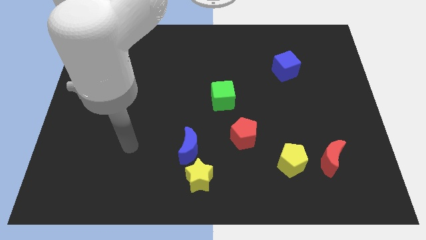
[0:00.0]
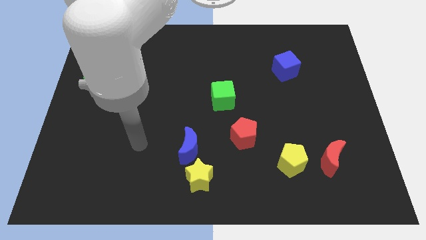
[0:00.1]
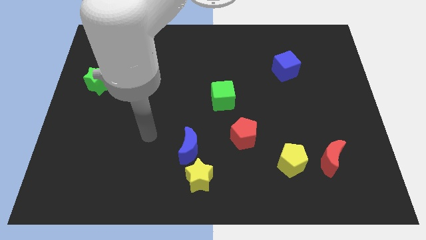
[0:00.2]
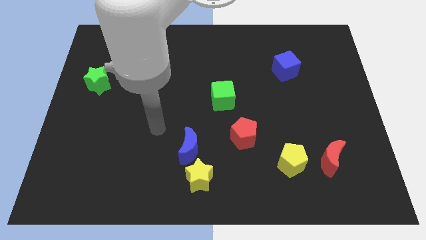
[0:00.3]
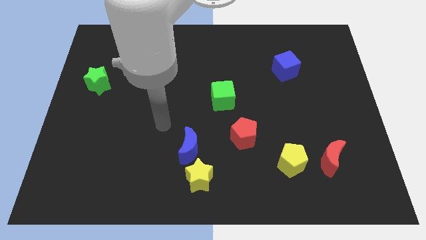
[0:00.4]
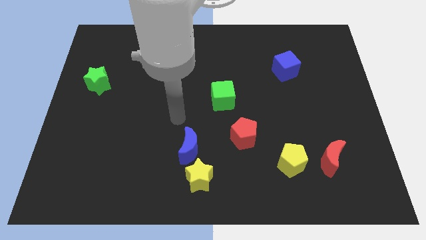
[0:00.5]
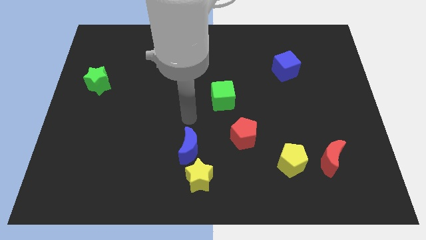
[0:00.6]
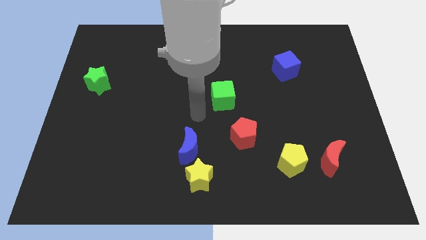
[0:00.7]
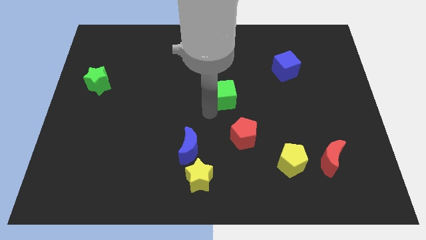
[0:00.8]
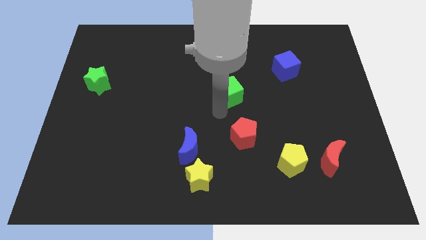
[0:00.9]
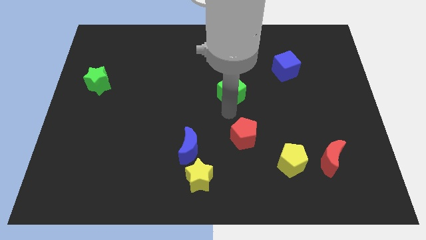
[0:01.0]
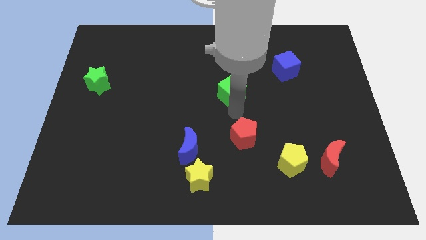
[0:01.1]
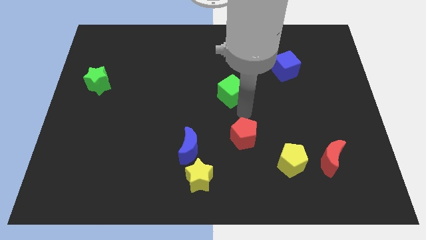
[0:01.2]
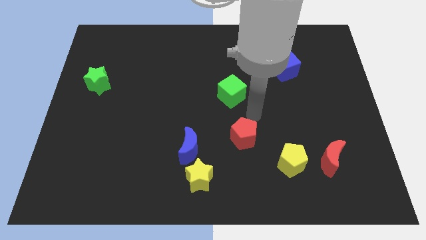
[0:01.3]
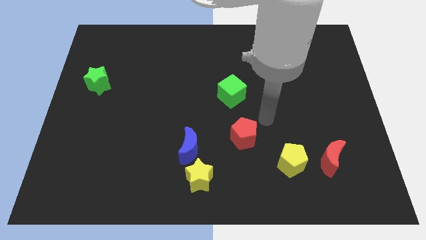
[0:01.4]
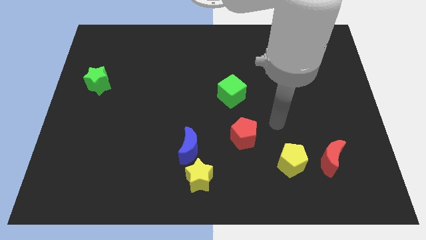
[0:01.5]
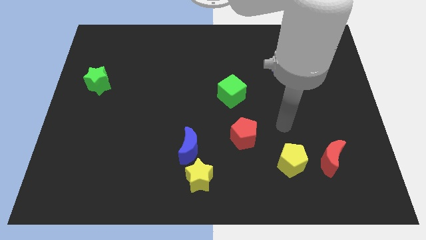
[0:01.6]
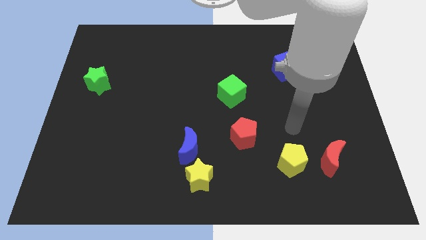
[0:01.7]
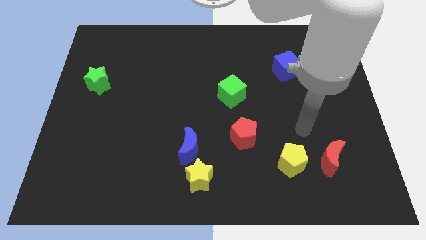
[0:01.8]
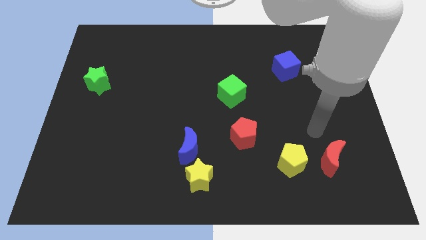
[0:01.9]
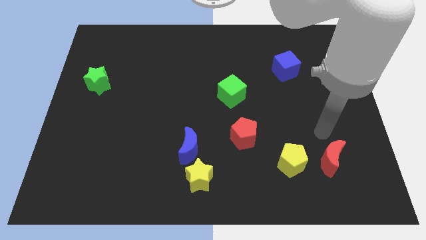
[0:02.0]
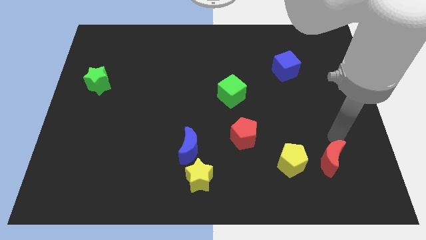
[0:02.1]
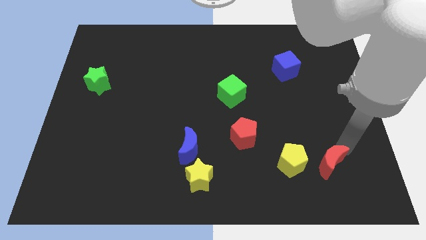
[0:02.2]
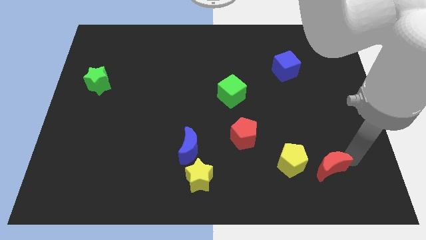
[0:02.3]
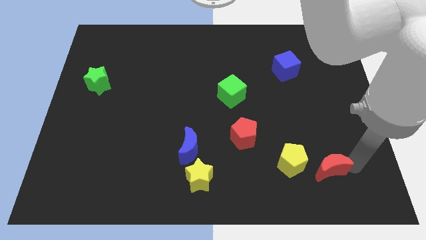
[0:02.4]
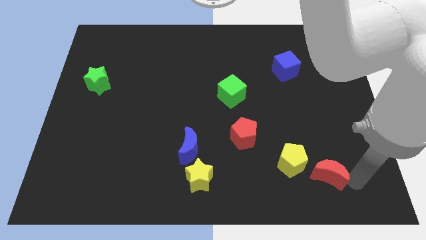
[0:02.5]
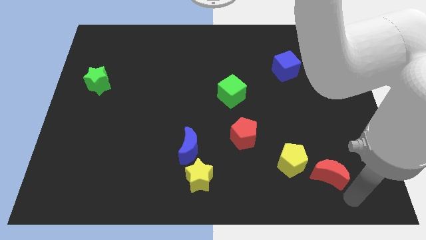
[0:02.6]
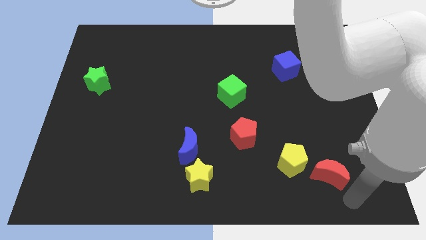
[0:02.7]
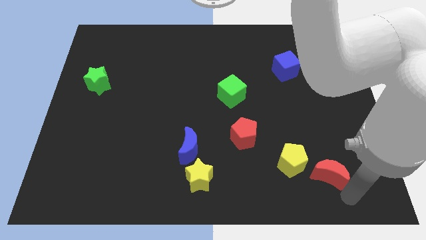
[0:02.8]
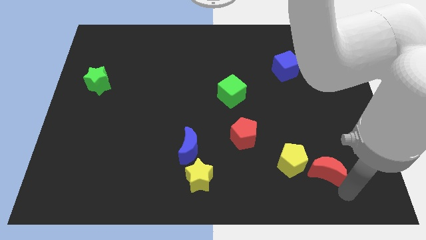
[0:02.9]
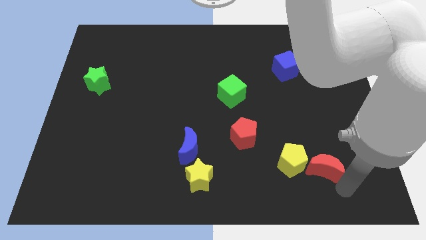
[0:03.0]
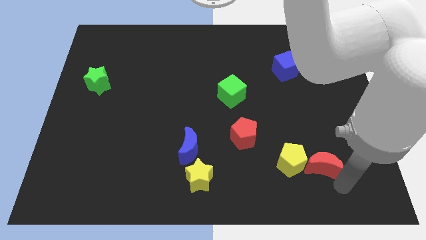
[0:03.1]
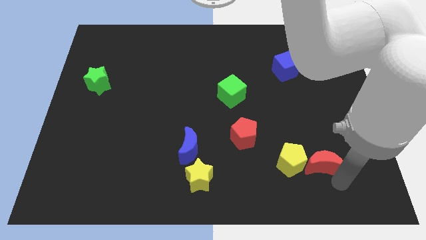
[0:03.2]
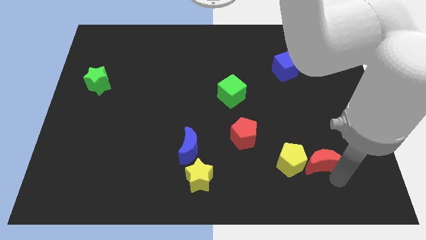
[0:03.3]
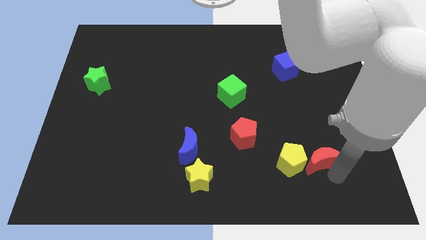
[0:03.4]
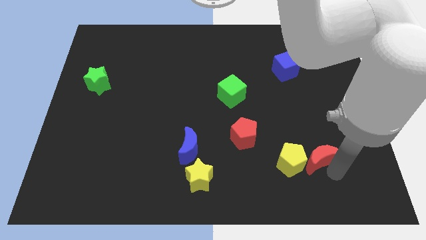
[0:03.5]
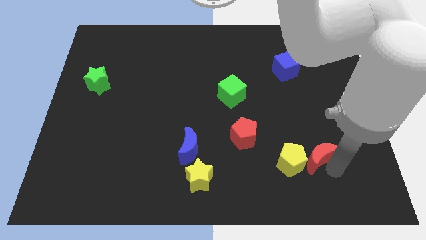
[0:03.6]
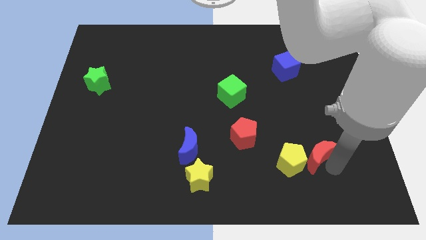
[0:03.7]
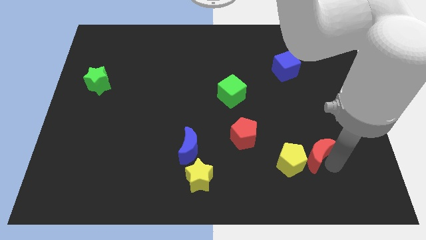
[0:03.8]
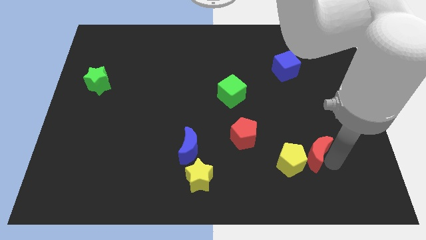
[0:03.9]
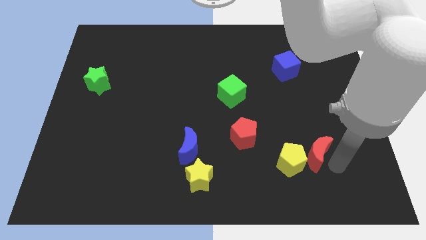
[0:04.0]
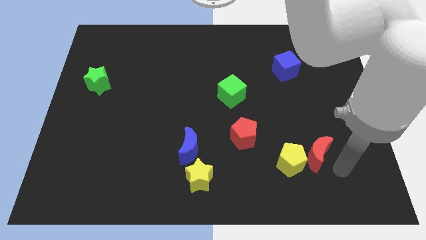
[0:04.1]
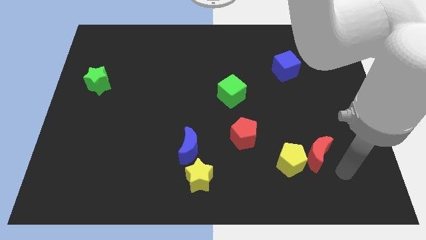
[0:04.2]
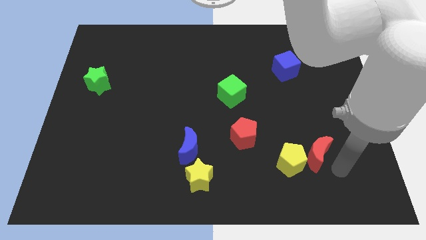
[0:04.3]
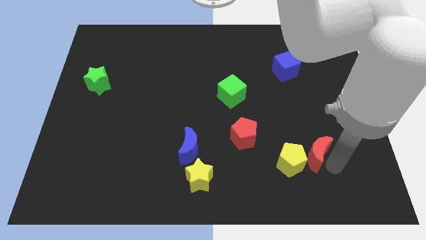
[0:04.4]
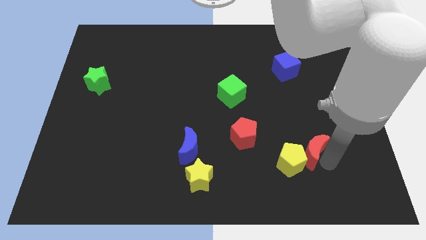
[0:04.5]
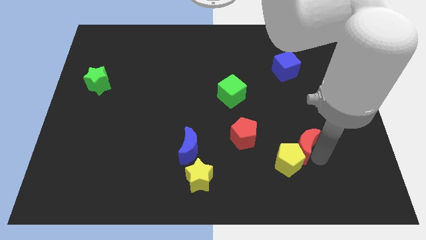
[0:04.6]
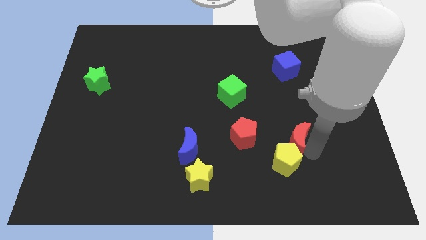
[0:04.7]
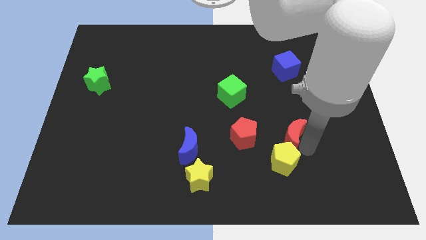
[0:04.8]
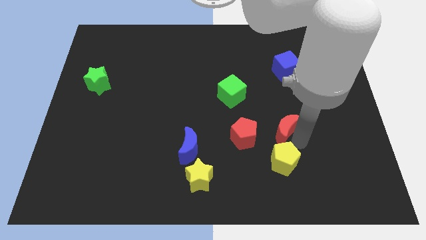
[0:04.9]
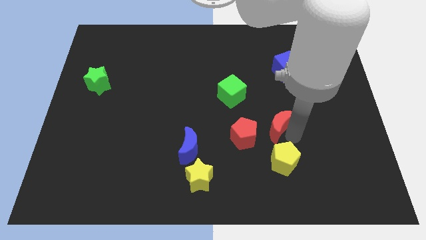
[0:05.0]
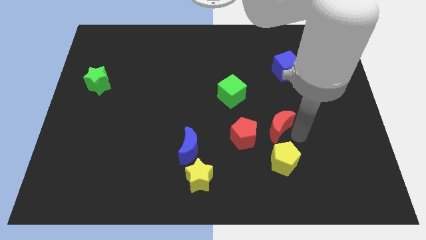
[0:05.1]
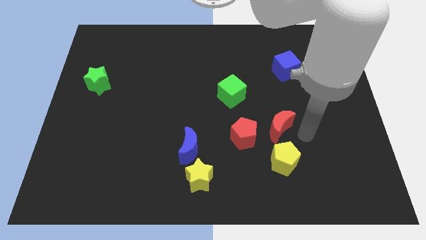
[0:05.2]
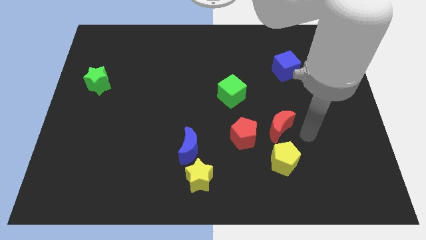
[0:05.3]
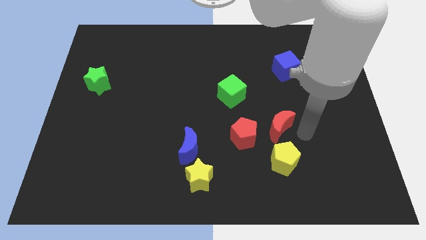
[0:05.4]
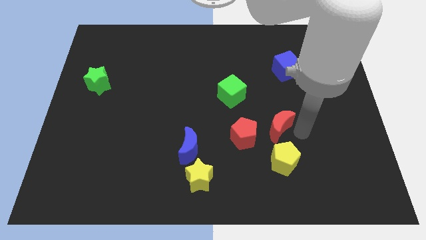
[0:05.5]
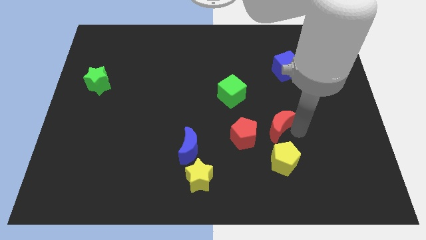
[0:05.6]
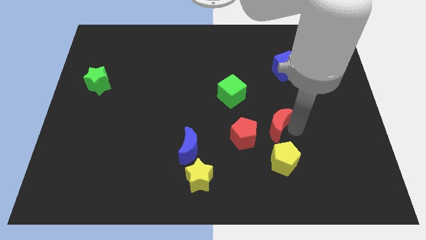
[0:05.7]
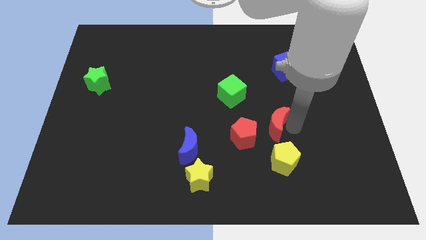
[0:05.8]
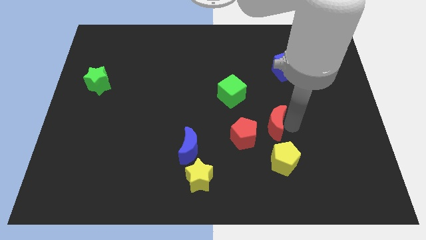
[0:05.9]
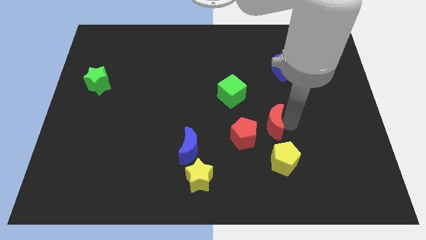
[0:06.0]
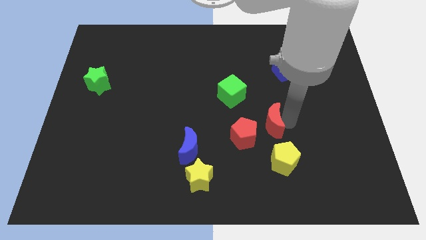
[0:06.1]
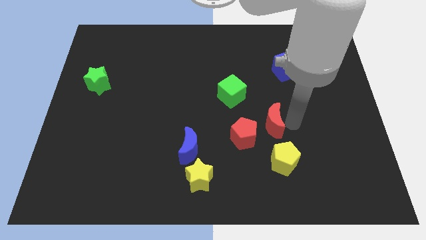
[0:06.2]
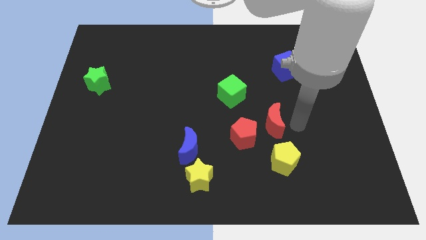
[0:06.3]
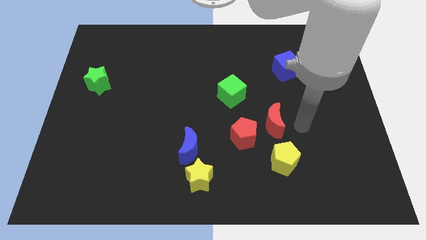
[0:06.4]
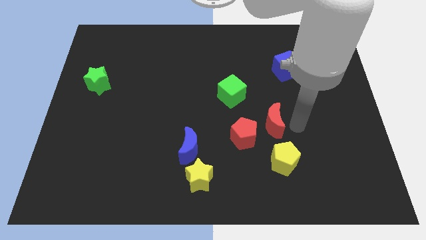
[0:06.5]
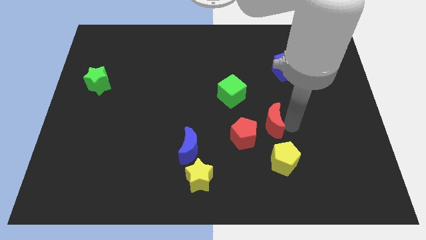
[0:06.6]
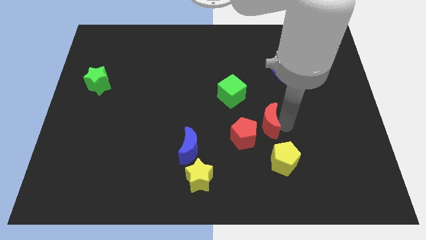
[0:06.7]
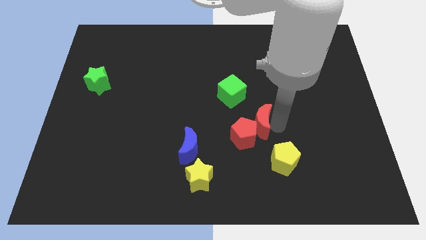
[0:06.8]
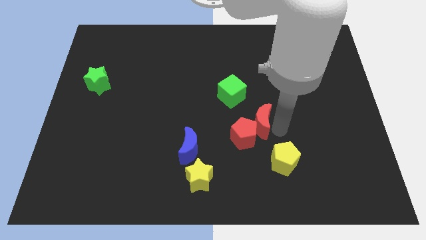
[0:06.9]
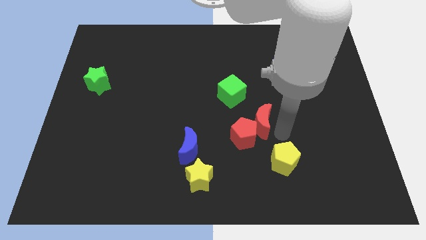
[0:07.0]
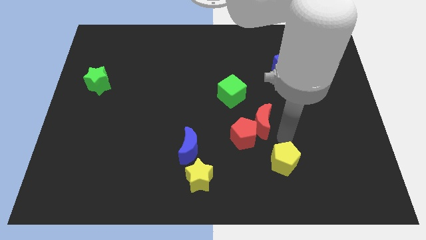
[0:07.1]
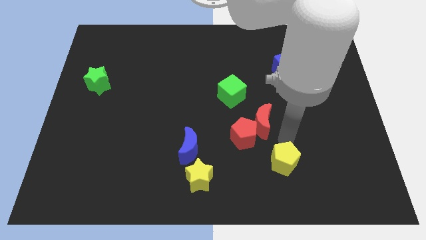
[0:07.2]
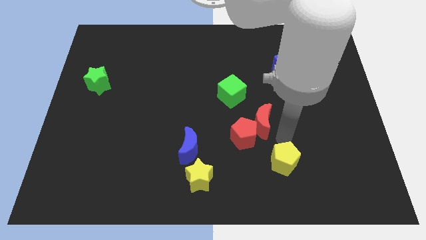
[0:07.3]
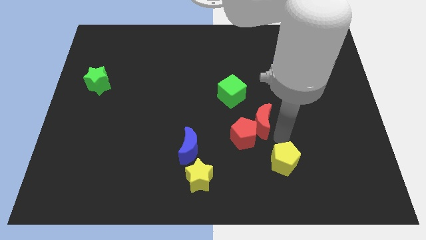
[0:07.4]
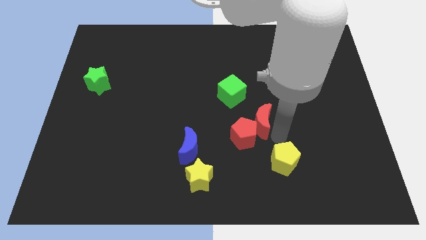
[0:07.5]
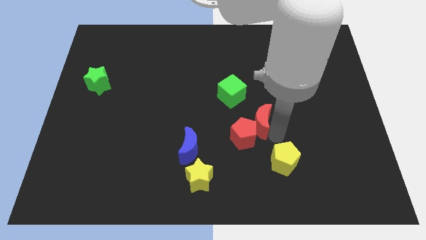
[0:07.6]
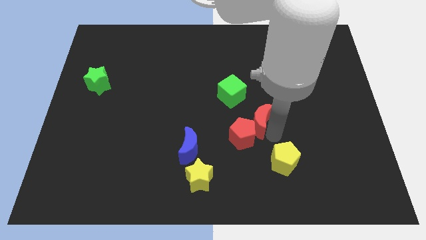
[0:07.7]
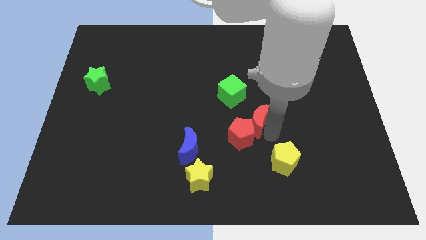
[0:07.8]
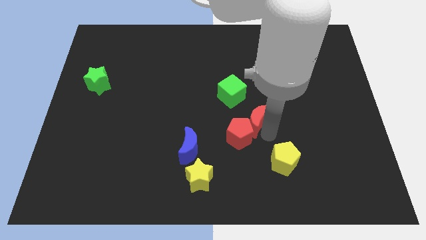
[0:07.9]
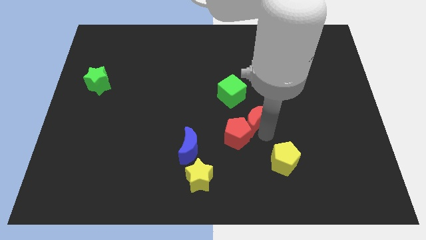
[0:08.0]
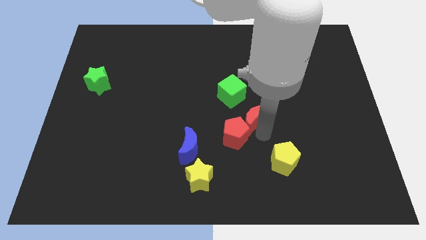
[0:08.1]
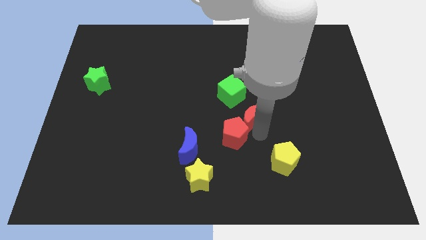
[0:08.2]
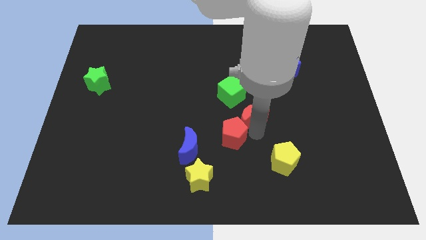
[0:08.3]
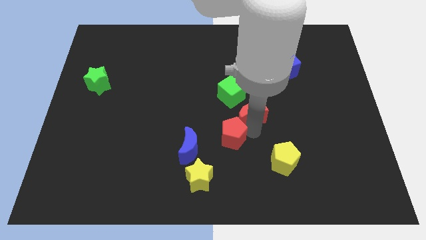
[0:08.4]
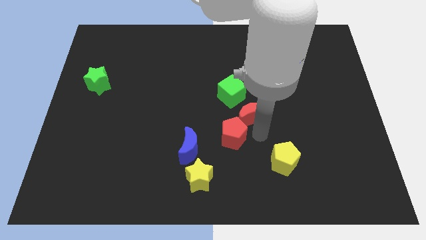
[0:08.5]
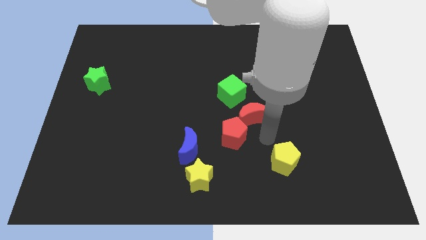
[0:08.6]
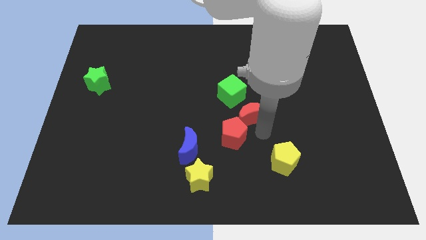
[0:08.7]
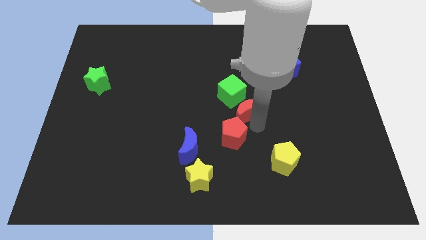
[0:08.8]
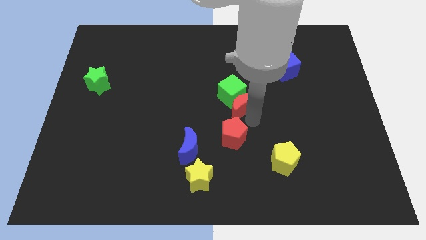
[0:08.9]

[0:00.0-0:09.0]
put the red moon to the green cube
